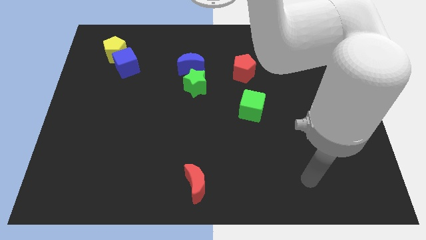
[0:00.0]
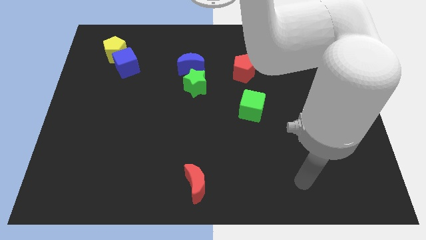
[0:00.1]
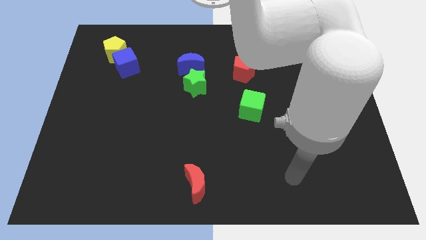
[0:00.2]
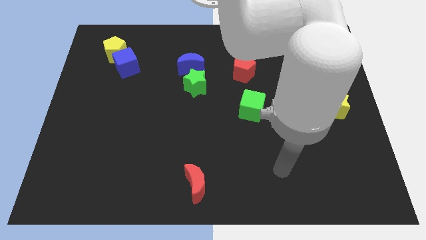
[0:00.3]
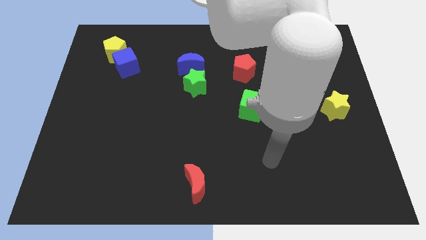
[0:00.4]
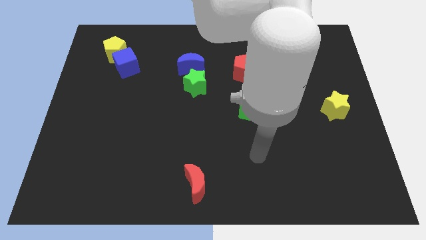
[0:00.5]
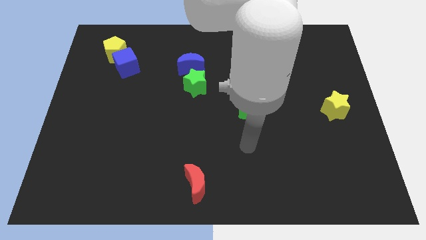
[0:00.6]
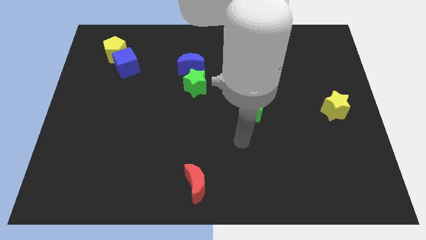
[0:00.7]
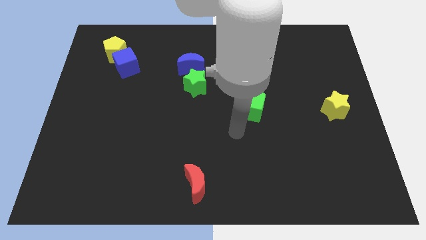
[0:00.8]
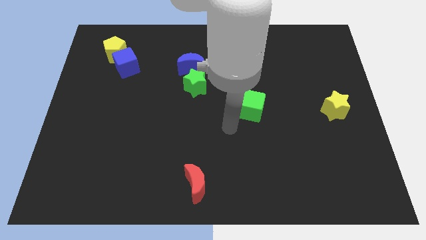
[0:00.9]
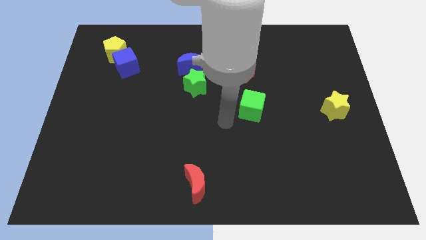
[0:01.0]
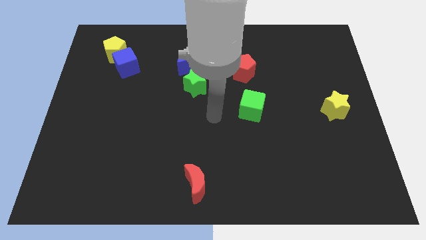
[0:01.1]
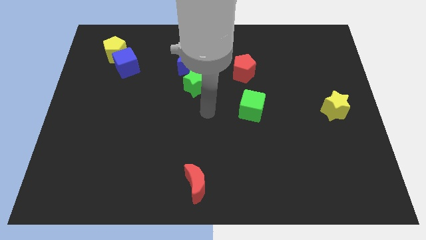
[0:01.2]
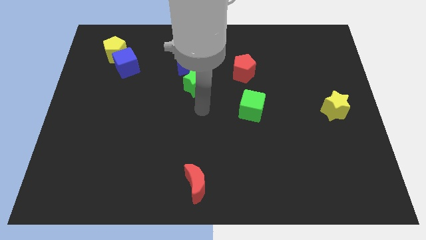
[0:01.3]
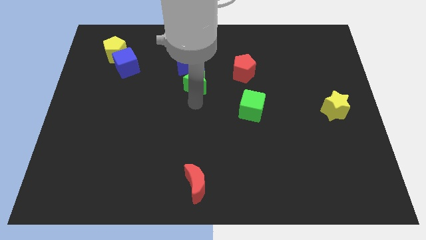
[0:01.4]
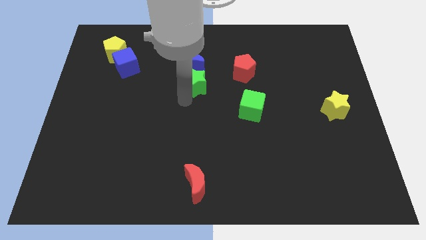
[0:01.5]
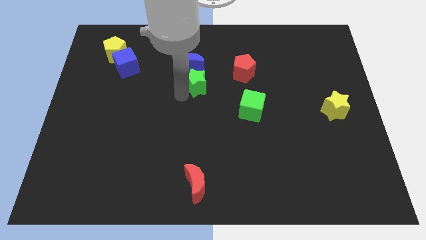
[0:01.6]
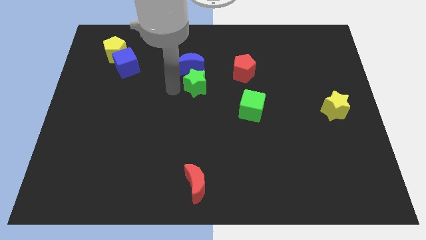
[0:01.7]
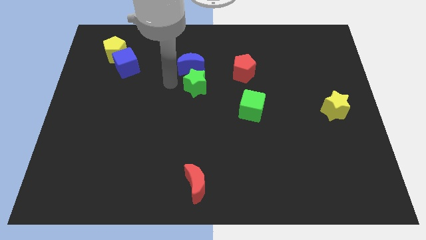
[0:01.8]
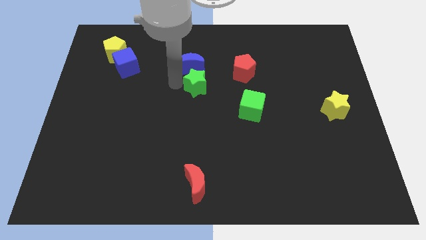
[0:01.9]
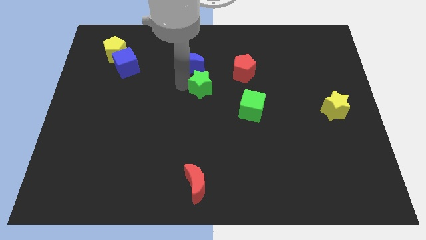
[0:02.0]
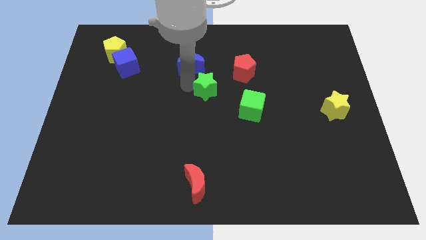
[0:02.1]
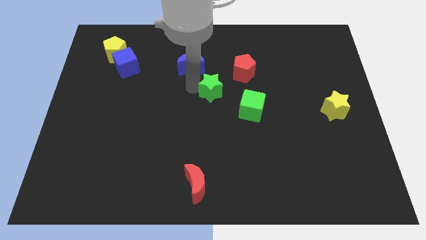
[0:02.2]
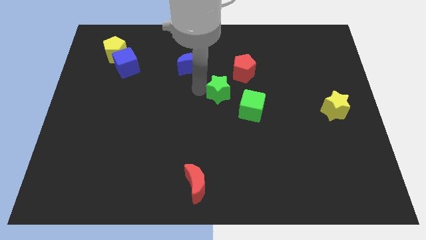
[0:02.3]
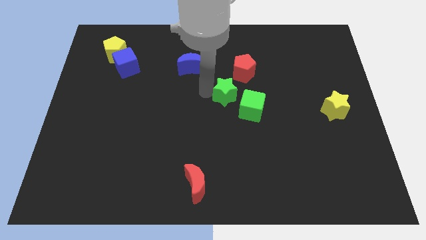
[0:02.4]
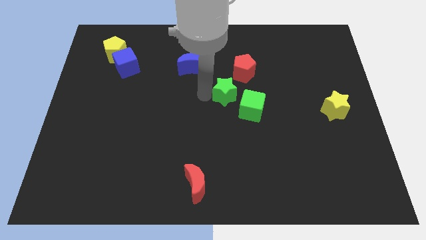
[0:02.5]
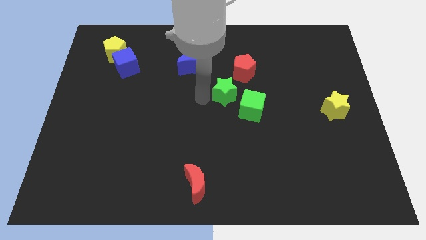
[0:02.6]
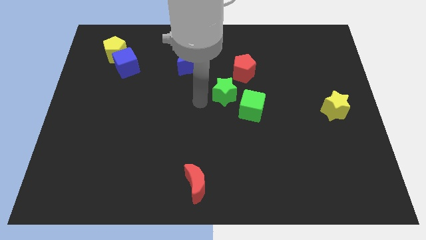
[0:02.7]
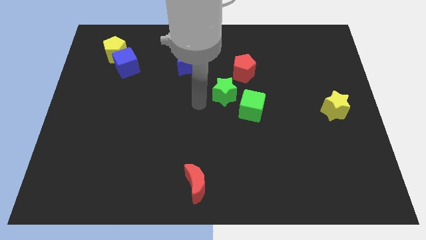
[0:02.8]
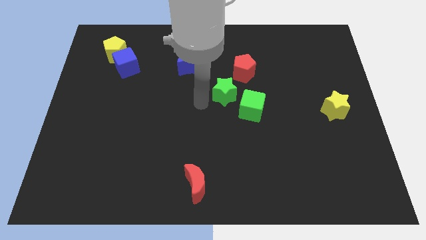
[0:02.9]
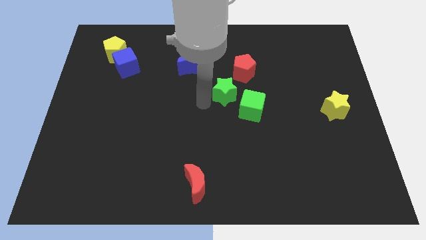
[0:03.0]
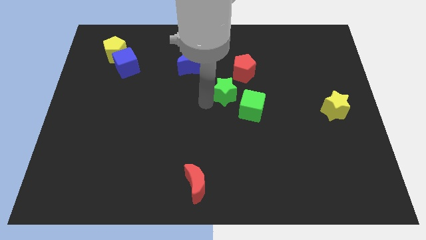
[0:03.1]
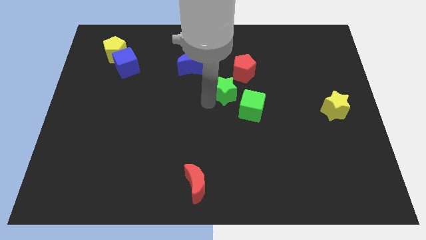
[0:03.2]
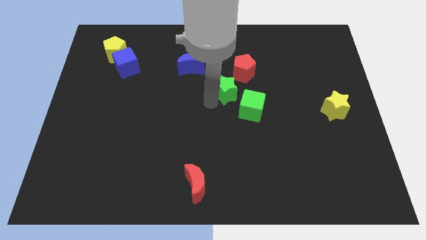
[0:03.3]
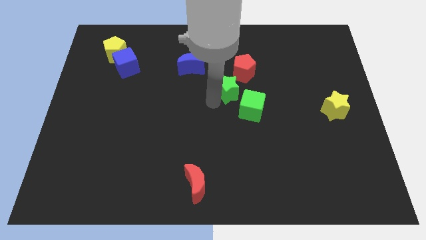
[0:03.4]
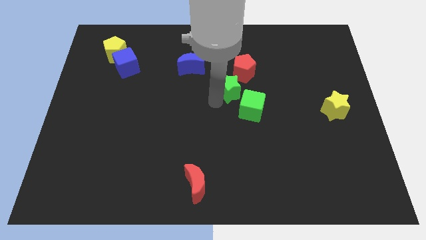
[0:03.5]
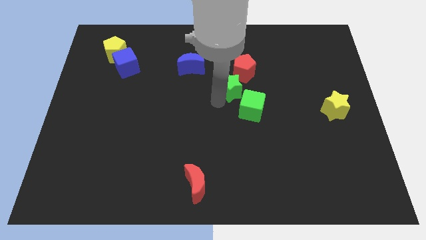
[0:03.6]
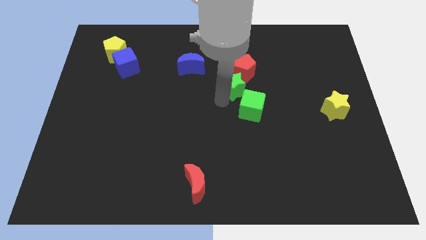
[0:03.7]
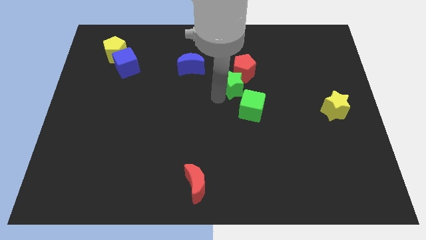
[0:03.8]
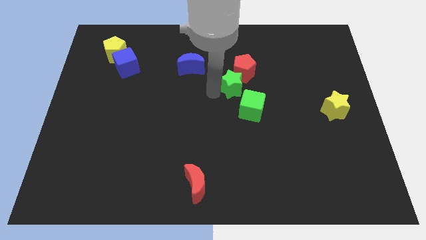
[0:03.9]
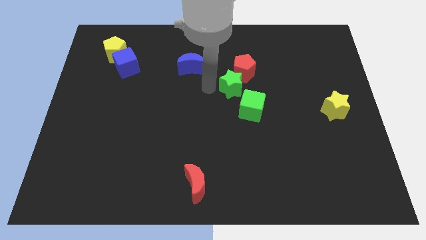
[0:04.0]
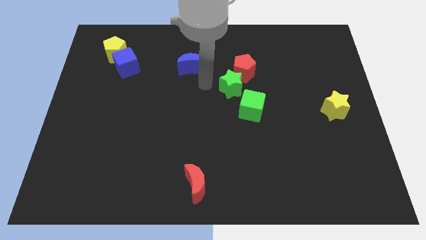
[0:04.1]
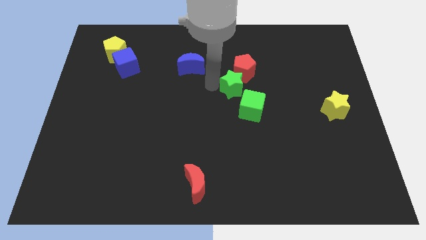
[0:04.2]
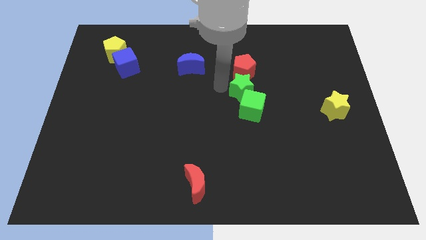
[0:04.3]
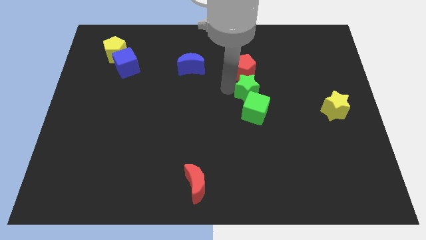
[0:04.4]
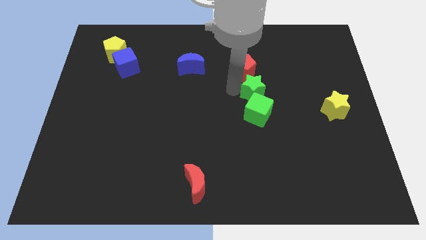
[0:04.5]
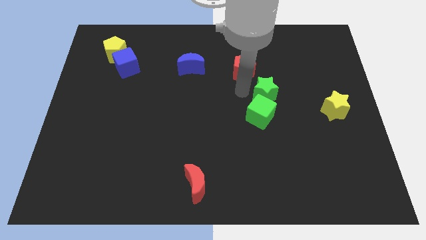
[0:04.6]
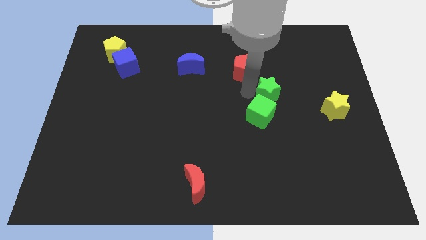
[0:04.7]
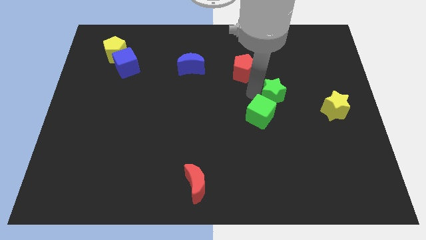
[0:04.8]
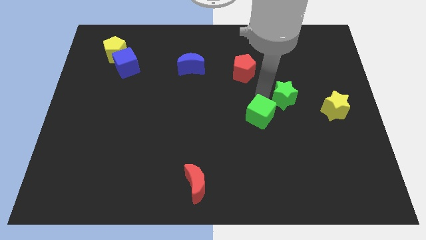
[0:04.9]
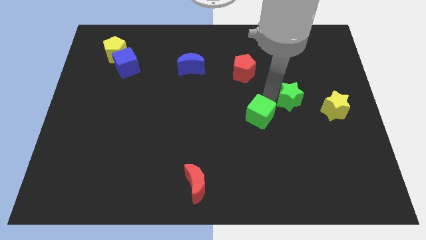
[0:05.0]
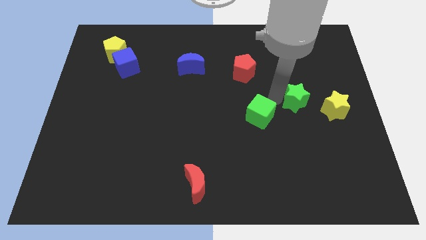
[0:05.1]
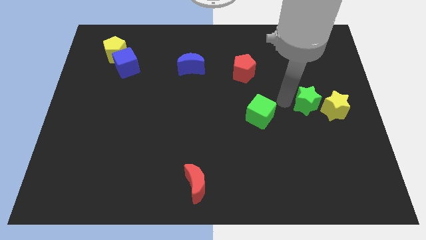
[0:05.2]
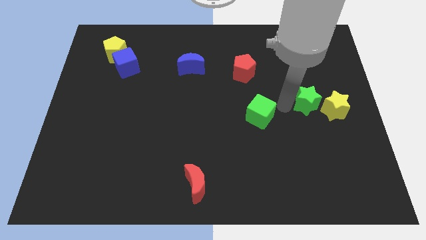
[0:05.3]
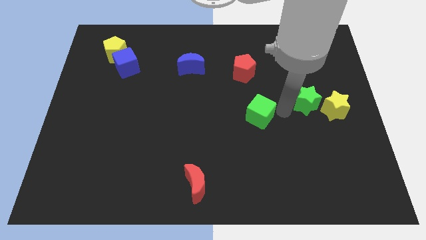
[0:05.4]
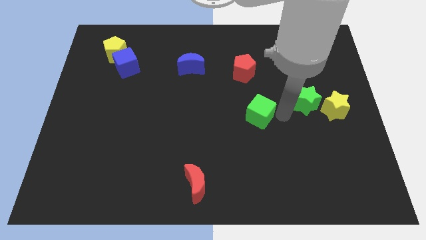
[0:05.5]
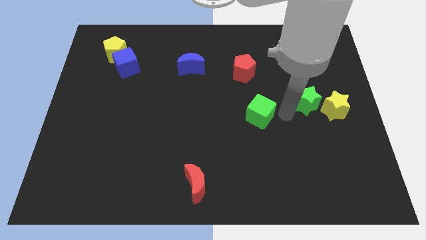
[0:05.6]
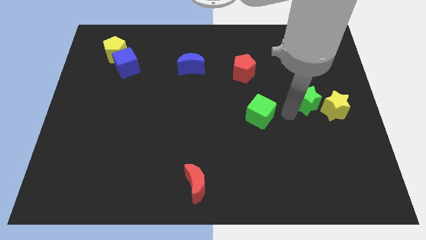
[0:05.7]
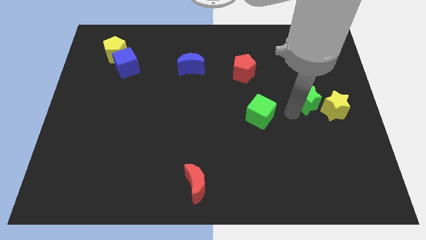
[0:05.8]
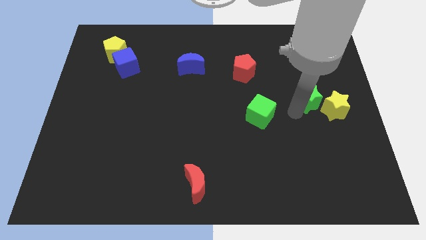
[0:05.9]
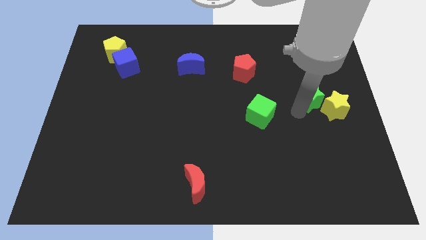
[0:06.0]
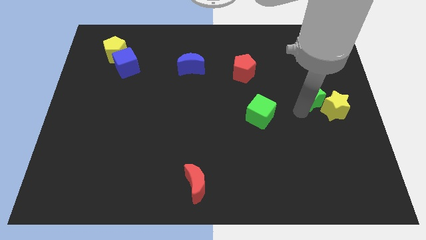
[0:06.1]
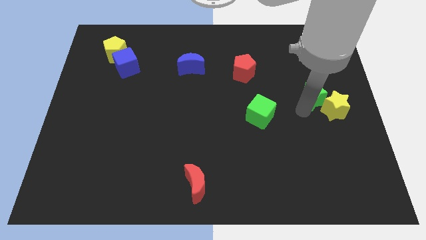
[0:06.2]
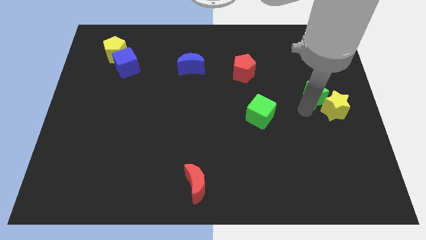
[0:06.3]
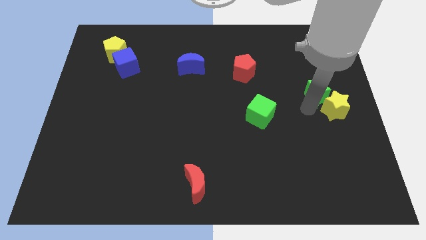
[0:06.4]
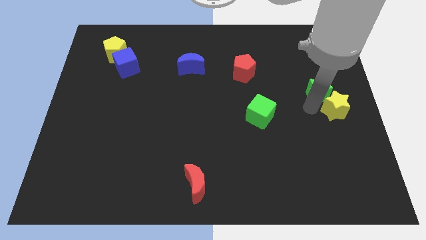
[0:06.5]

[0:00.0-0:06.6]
push the green star to the right side

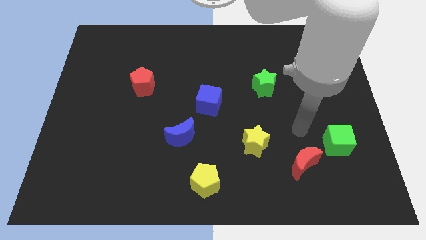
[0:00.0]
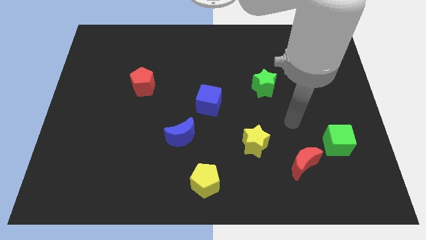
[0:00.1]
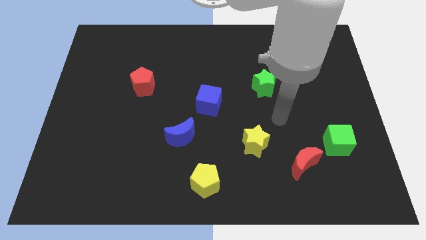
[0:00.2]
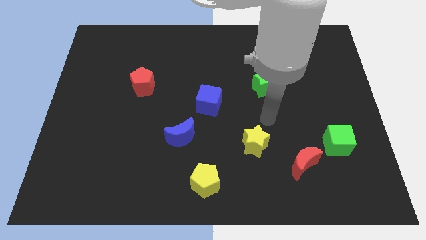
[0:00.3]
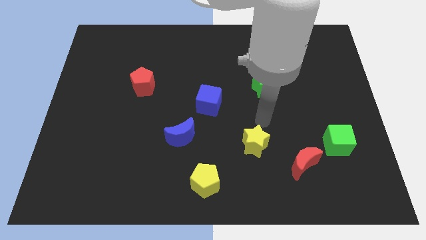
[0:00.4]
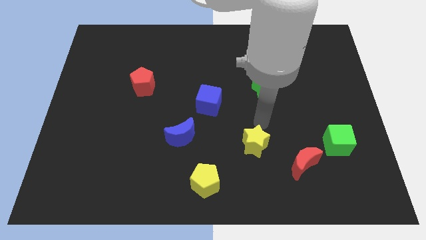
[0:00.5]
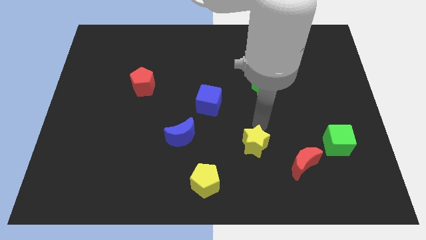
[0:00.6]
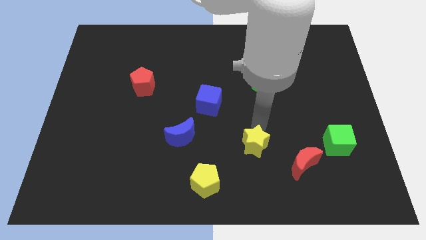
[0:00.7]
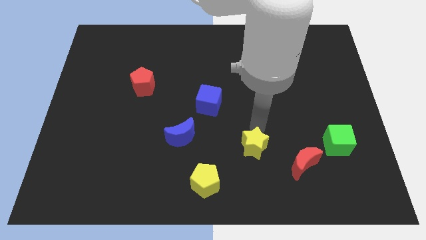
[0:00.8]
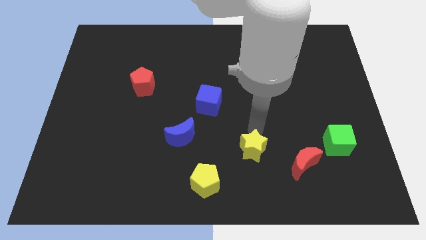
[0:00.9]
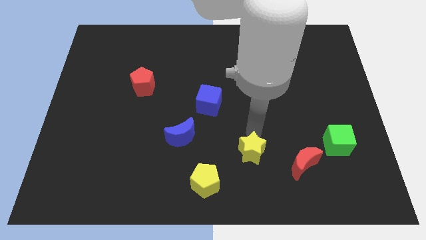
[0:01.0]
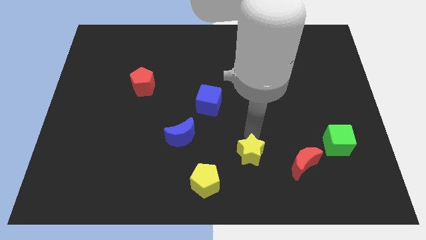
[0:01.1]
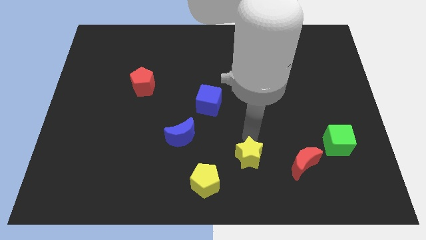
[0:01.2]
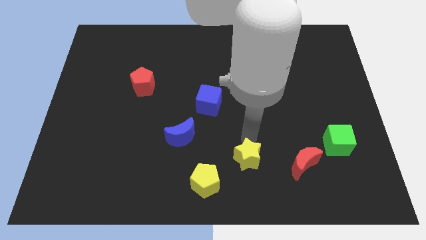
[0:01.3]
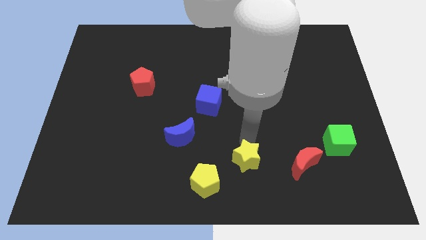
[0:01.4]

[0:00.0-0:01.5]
put the yellow star to the bottom side
